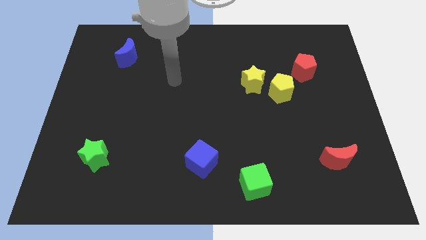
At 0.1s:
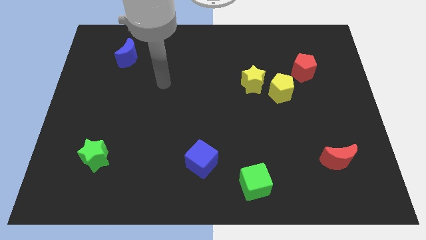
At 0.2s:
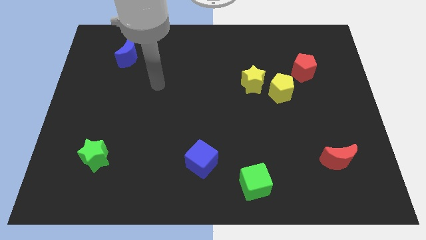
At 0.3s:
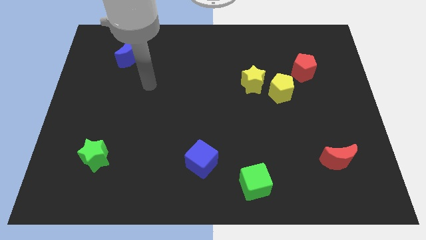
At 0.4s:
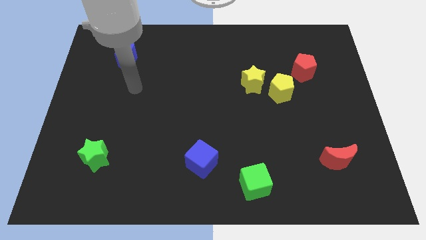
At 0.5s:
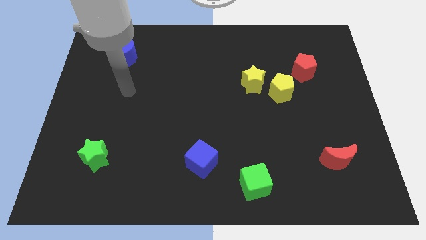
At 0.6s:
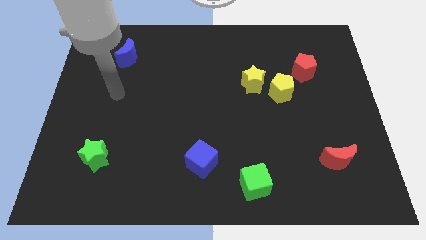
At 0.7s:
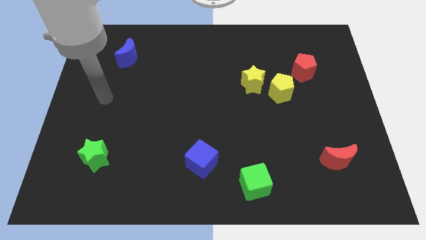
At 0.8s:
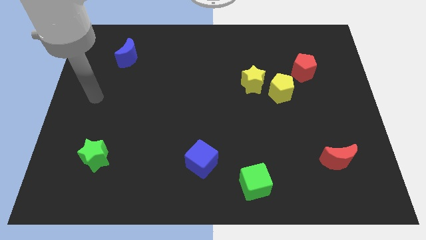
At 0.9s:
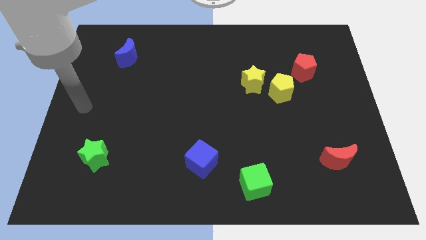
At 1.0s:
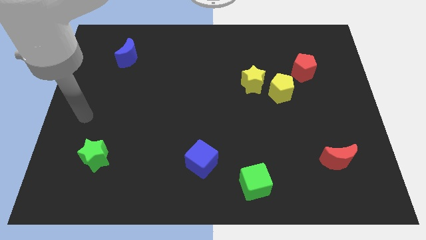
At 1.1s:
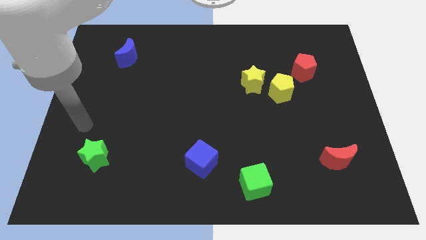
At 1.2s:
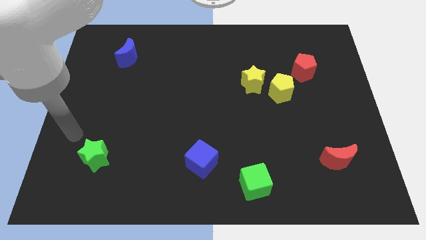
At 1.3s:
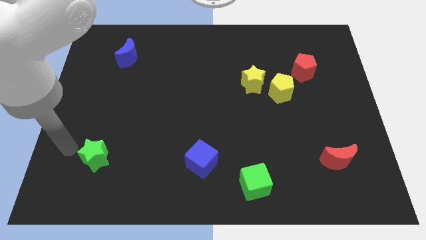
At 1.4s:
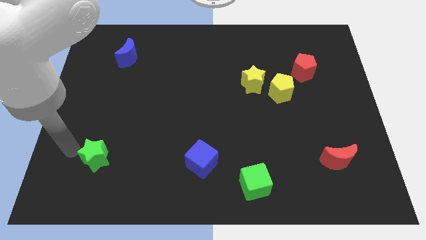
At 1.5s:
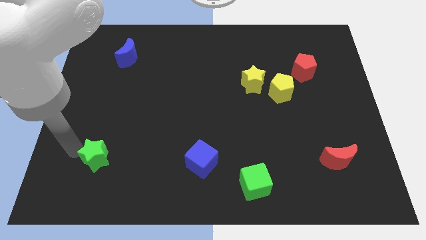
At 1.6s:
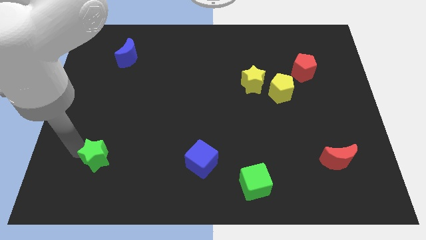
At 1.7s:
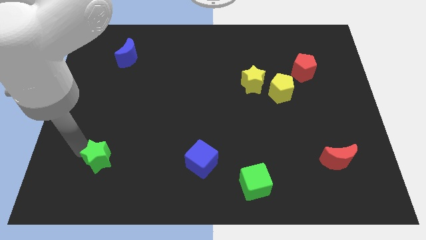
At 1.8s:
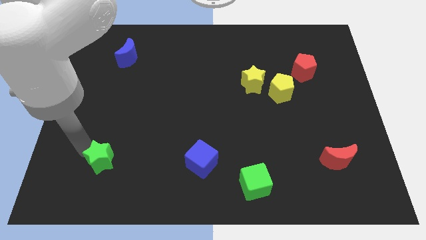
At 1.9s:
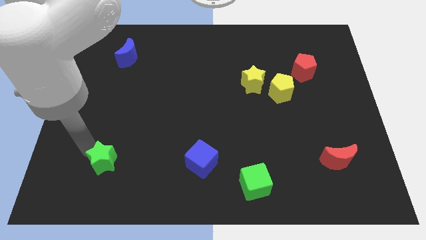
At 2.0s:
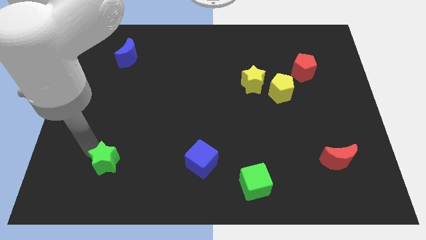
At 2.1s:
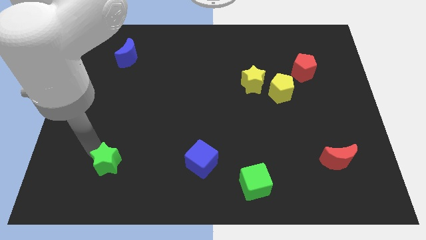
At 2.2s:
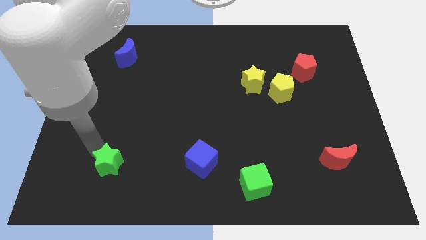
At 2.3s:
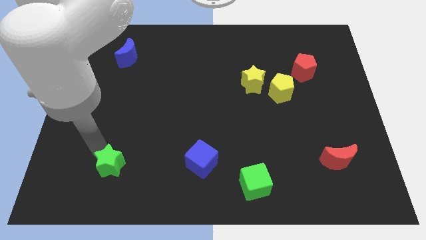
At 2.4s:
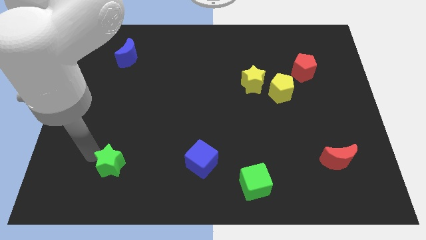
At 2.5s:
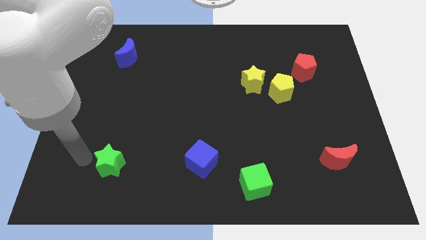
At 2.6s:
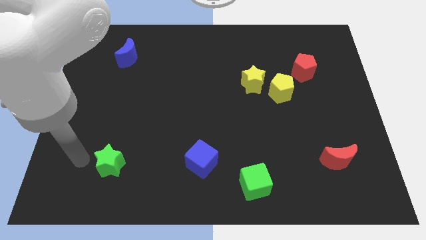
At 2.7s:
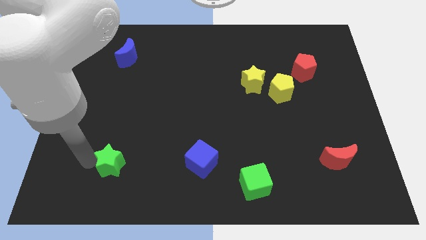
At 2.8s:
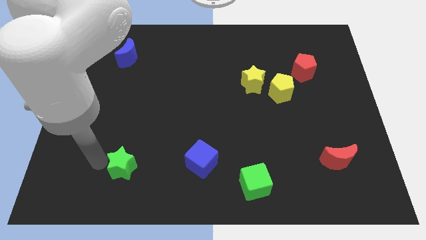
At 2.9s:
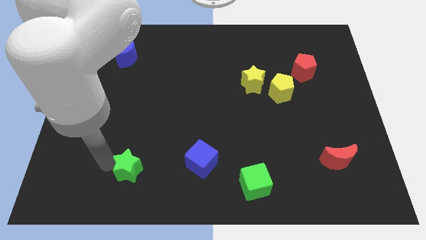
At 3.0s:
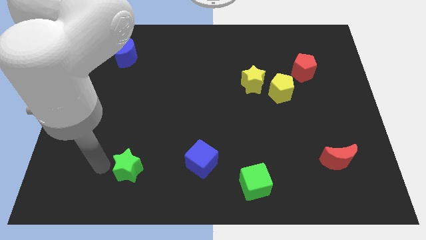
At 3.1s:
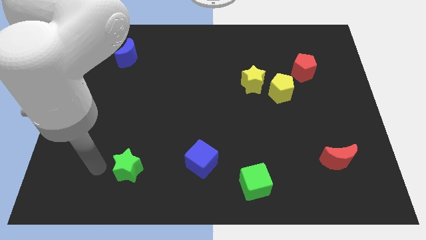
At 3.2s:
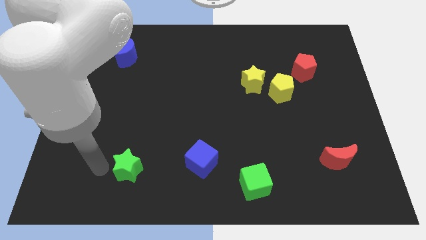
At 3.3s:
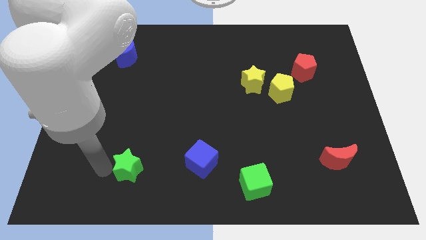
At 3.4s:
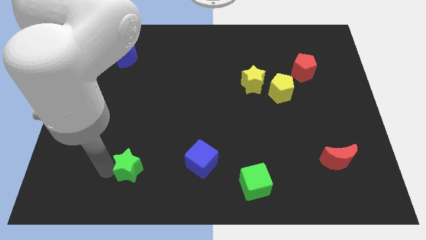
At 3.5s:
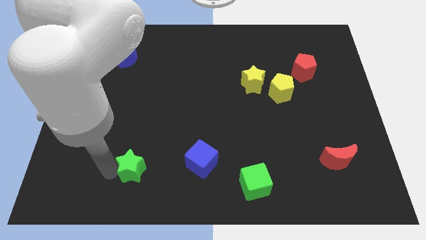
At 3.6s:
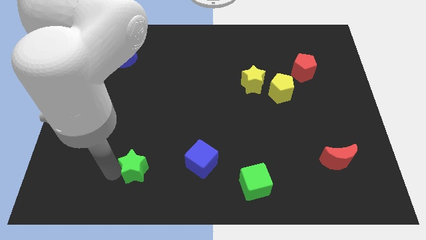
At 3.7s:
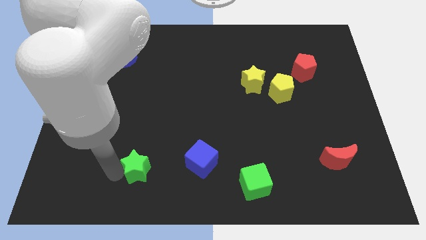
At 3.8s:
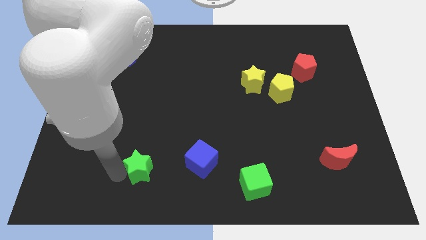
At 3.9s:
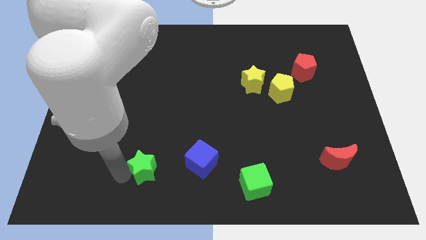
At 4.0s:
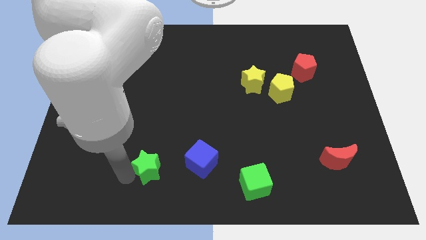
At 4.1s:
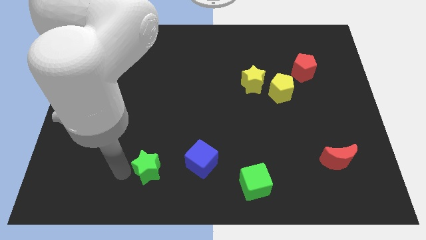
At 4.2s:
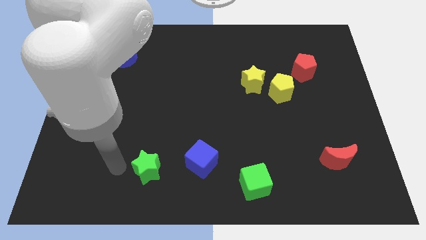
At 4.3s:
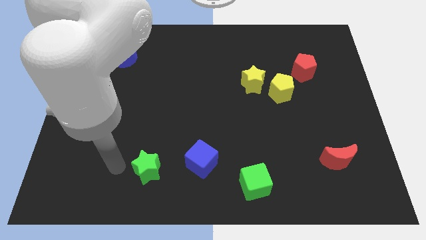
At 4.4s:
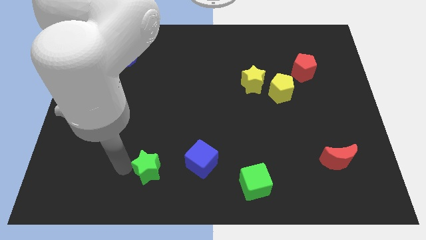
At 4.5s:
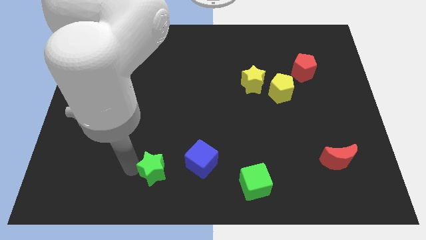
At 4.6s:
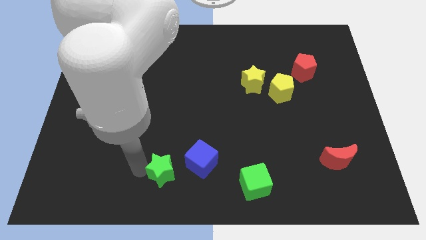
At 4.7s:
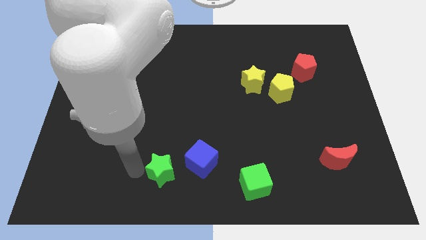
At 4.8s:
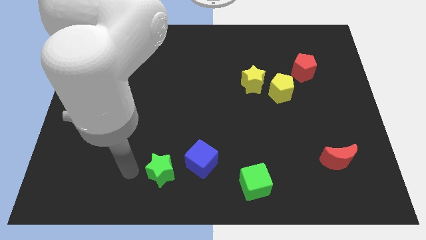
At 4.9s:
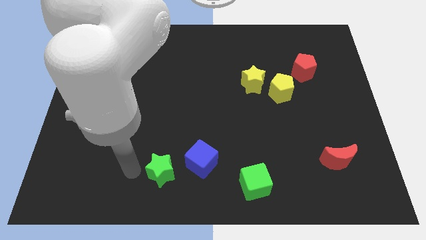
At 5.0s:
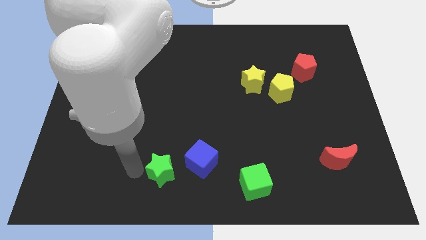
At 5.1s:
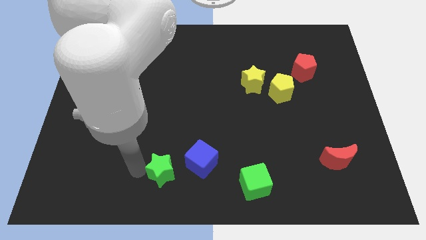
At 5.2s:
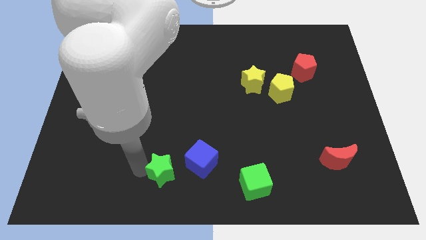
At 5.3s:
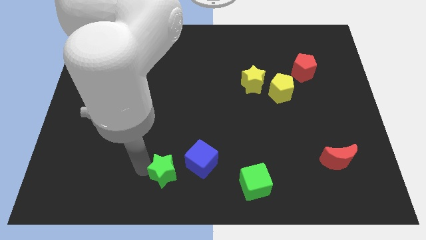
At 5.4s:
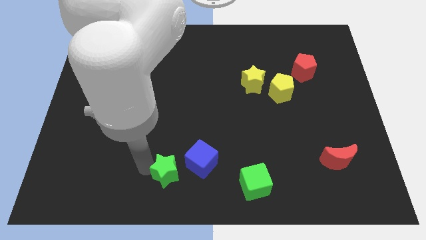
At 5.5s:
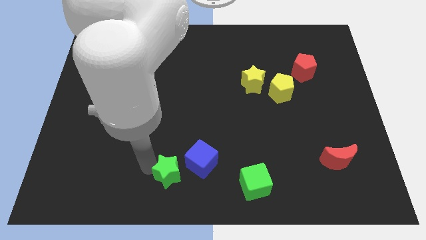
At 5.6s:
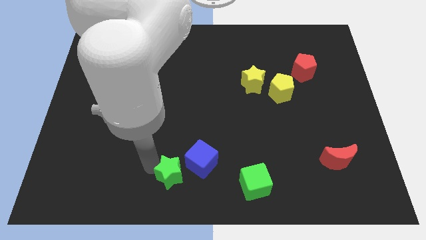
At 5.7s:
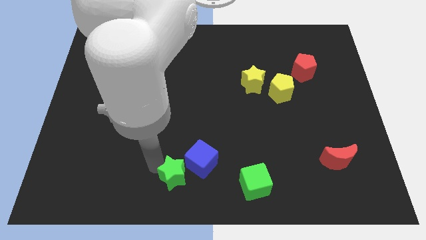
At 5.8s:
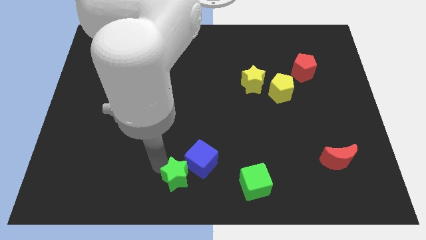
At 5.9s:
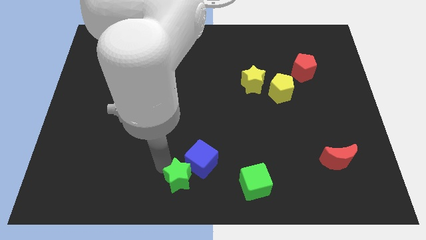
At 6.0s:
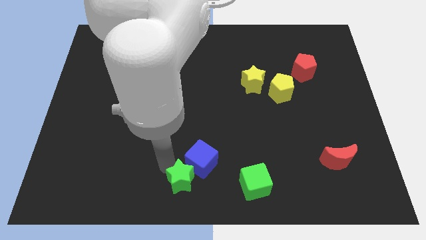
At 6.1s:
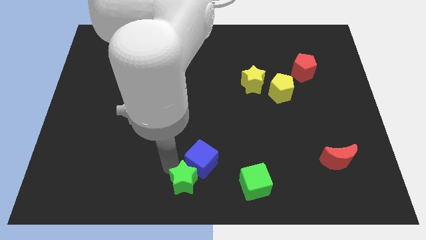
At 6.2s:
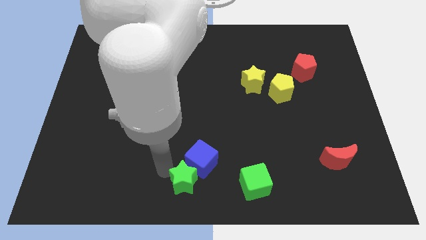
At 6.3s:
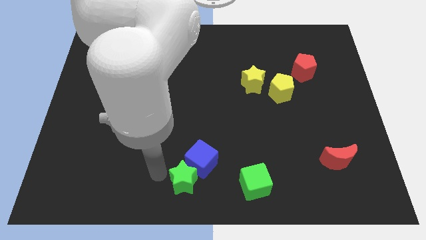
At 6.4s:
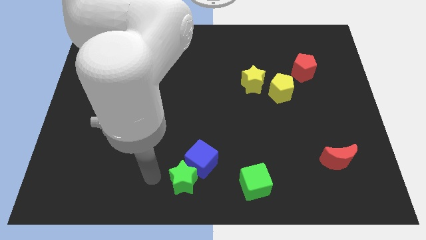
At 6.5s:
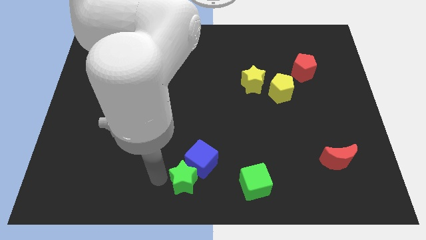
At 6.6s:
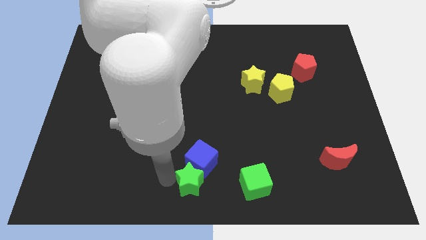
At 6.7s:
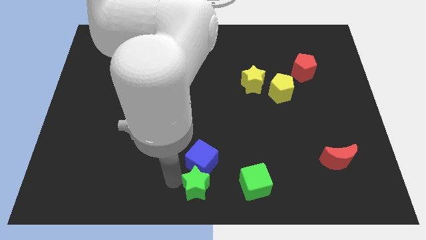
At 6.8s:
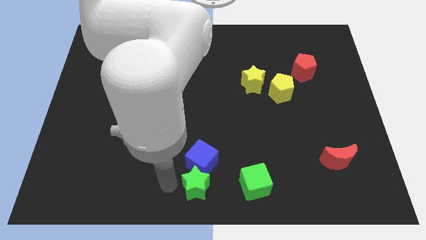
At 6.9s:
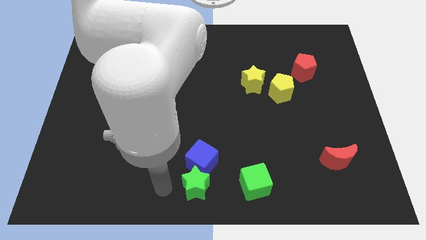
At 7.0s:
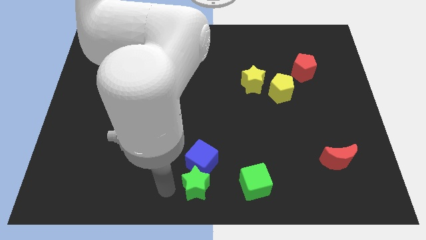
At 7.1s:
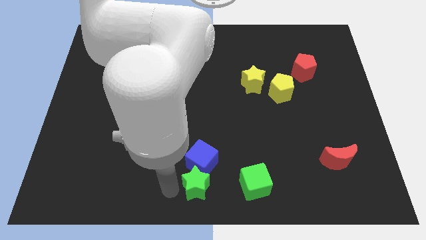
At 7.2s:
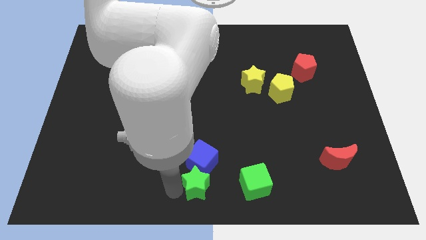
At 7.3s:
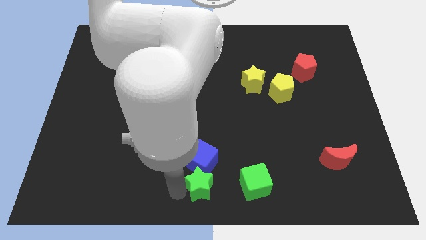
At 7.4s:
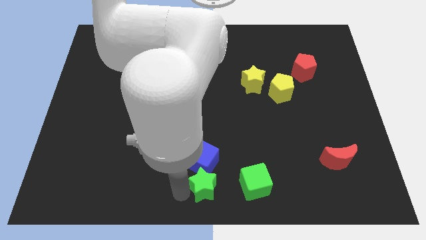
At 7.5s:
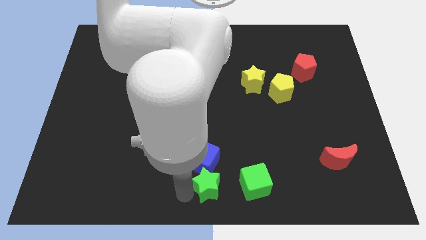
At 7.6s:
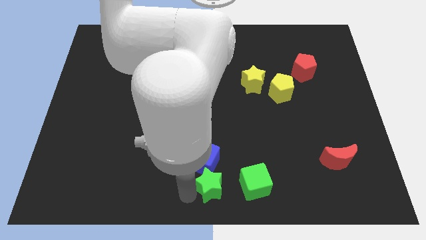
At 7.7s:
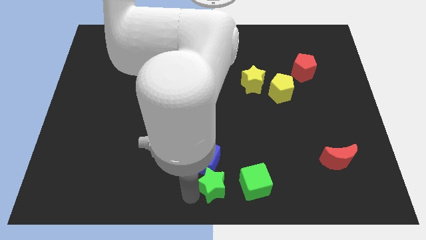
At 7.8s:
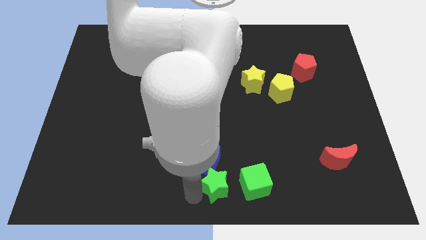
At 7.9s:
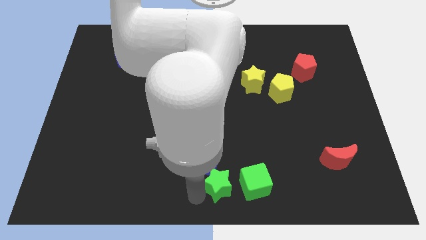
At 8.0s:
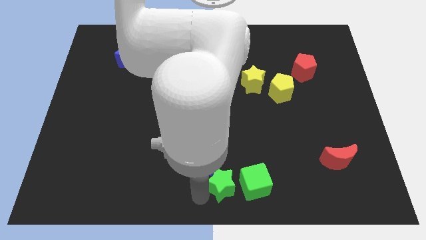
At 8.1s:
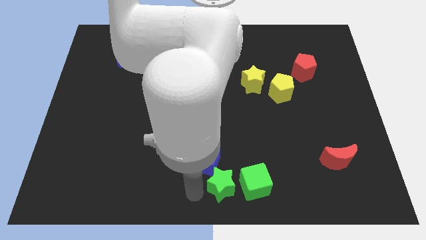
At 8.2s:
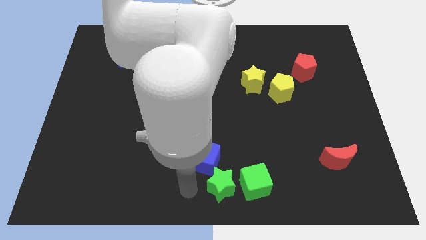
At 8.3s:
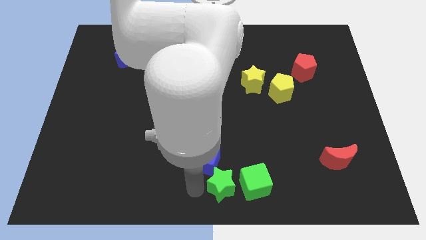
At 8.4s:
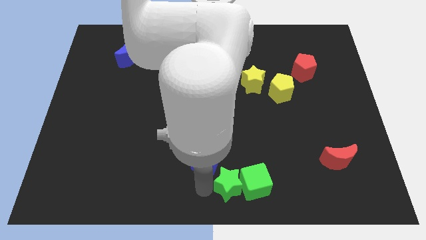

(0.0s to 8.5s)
push the green star towards the green cube

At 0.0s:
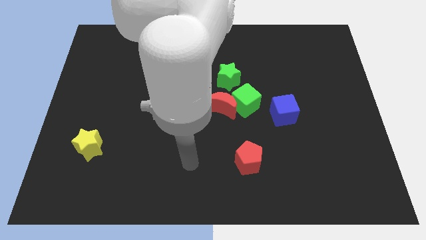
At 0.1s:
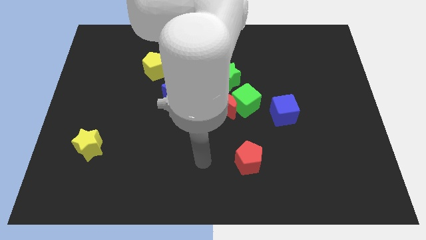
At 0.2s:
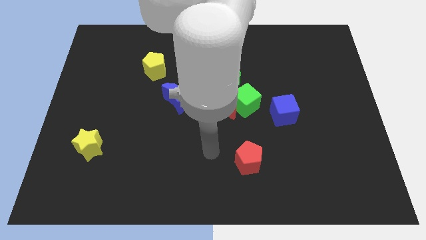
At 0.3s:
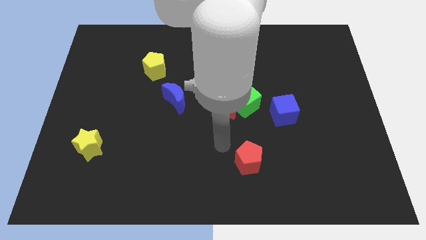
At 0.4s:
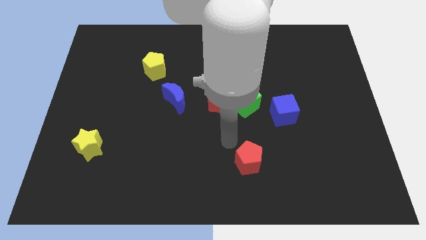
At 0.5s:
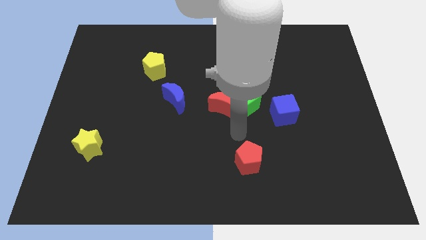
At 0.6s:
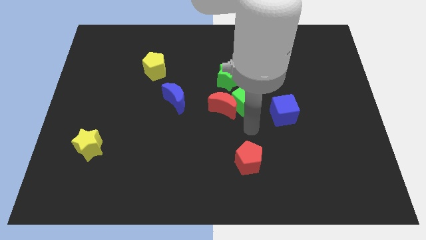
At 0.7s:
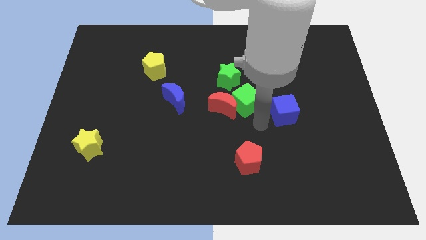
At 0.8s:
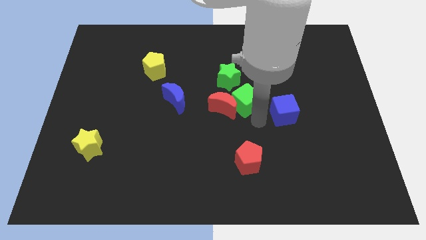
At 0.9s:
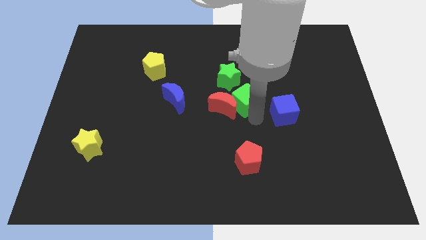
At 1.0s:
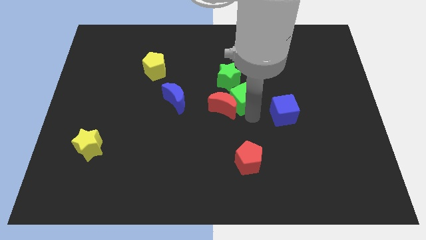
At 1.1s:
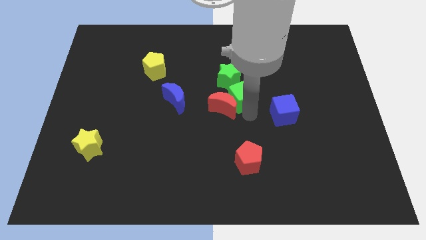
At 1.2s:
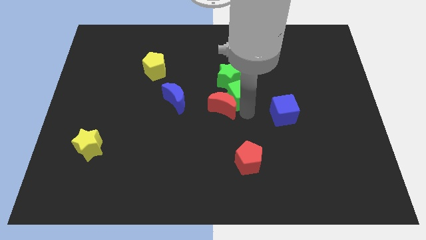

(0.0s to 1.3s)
put the green cube next to the green star
